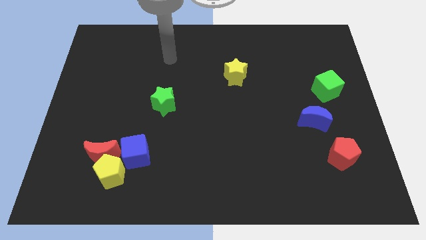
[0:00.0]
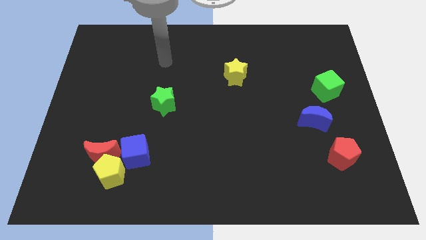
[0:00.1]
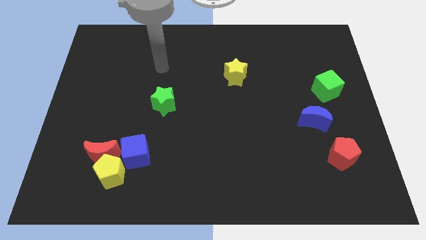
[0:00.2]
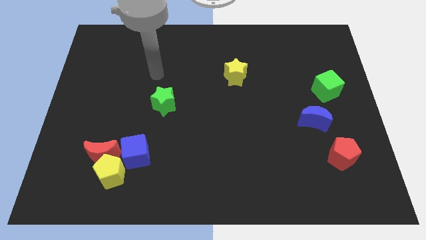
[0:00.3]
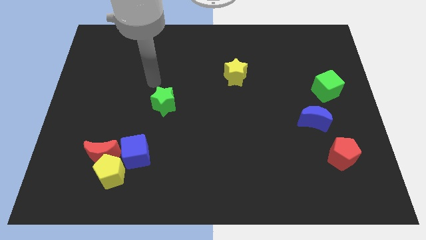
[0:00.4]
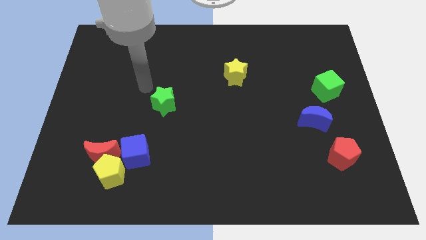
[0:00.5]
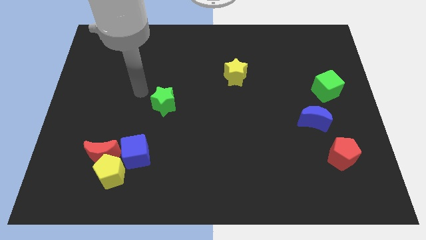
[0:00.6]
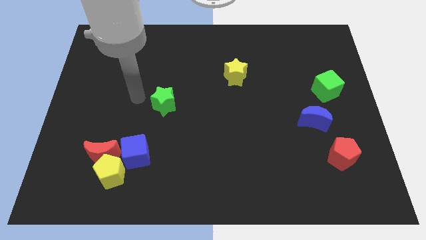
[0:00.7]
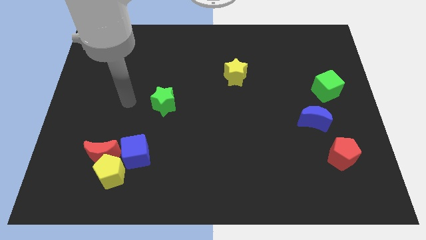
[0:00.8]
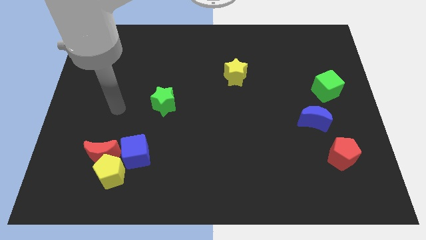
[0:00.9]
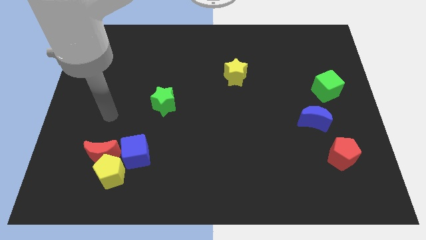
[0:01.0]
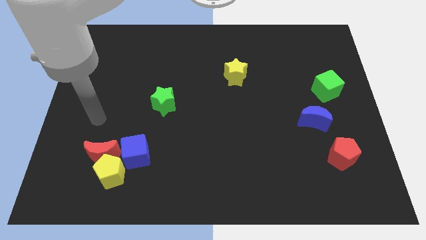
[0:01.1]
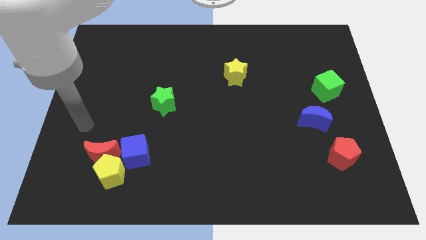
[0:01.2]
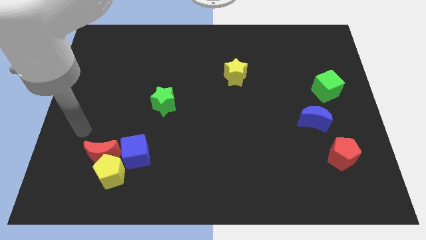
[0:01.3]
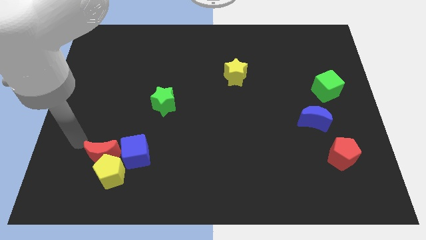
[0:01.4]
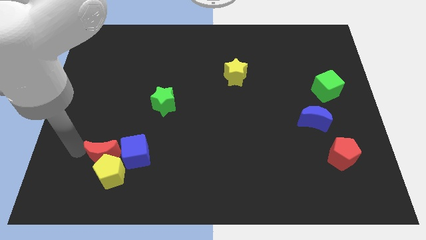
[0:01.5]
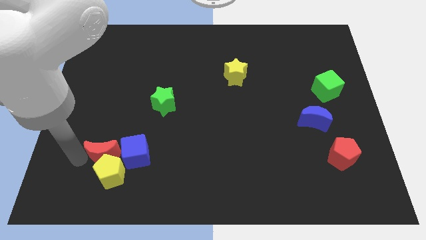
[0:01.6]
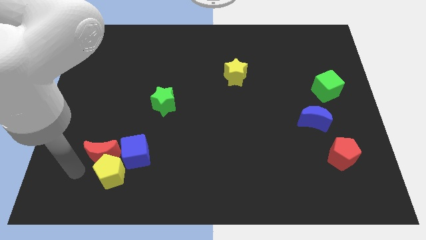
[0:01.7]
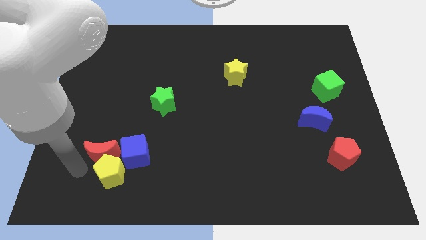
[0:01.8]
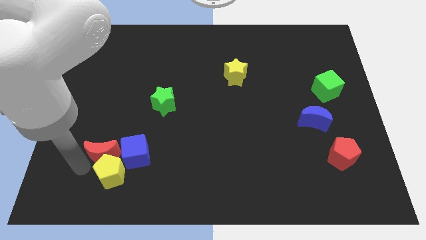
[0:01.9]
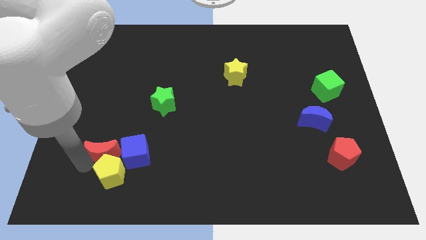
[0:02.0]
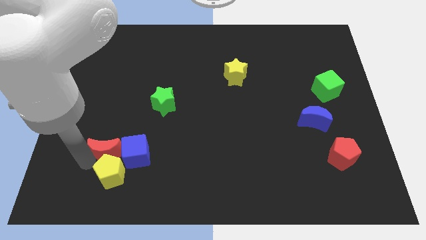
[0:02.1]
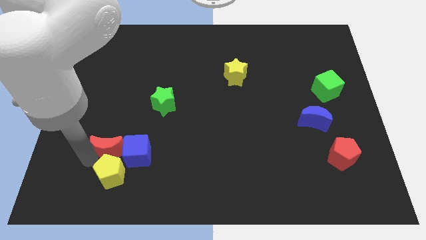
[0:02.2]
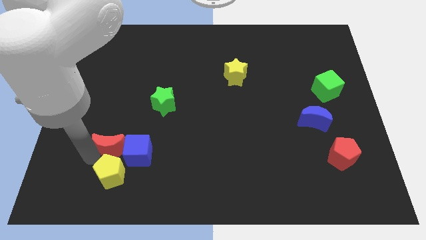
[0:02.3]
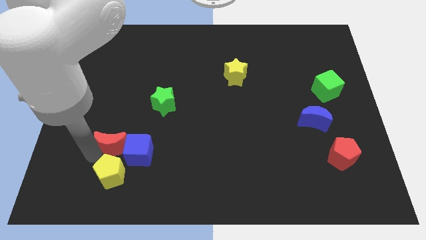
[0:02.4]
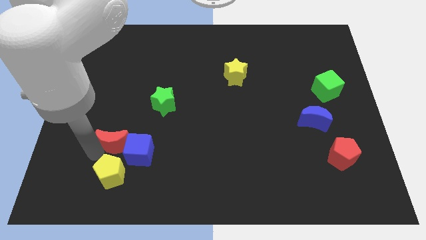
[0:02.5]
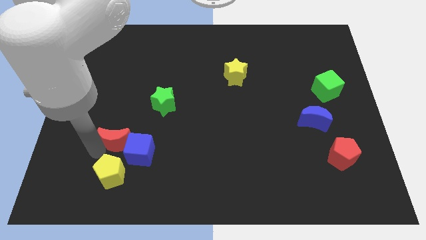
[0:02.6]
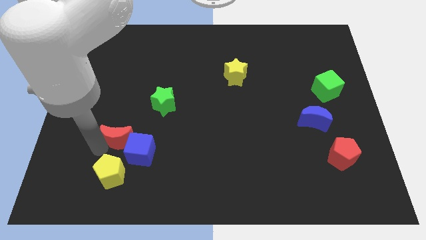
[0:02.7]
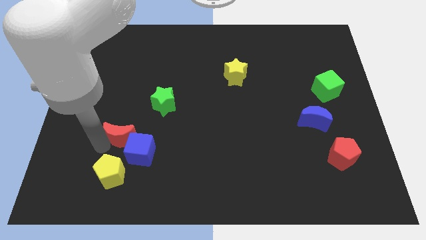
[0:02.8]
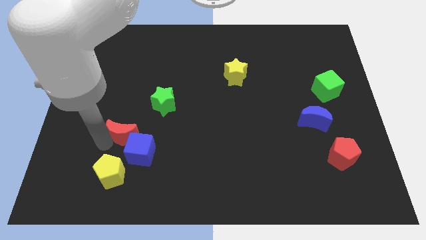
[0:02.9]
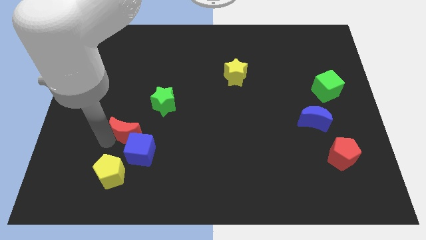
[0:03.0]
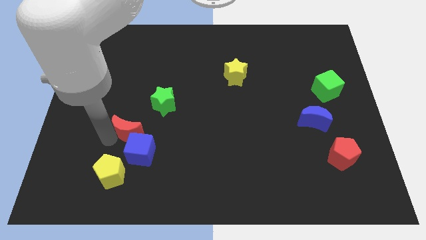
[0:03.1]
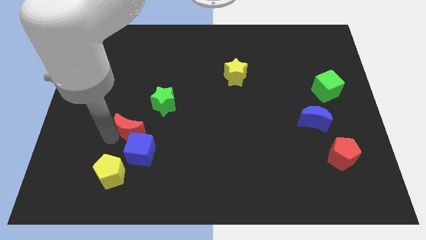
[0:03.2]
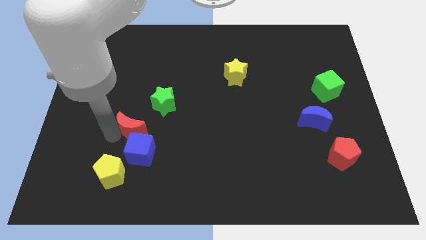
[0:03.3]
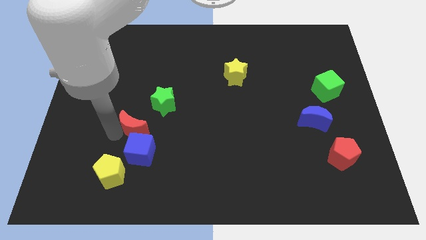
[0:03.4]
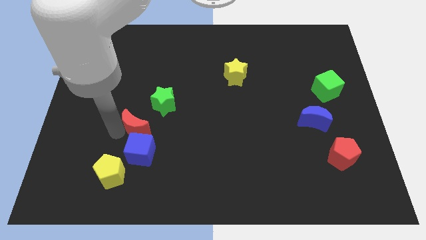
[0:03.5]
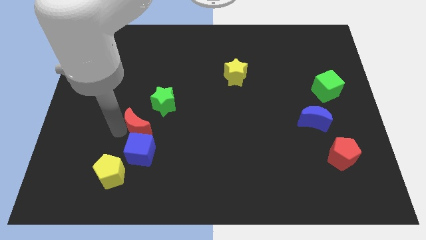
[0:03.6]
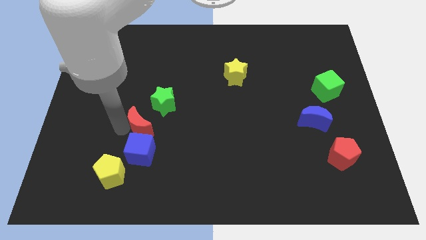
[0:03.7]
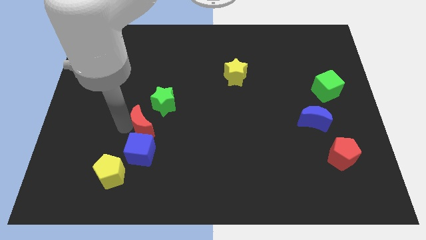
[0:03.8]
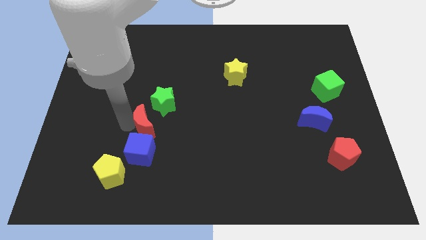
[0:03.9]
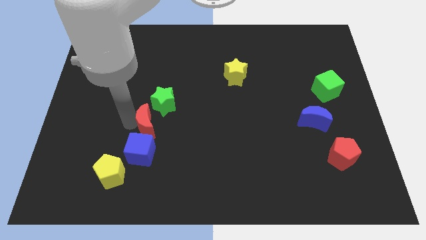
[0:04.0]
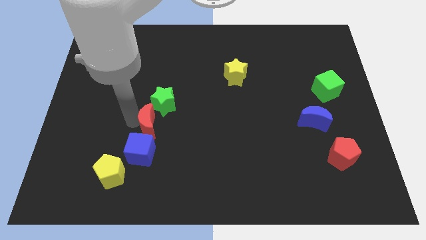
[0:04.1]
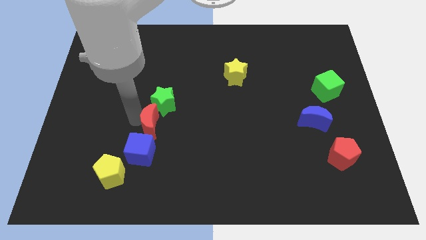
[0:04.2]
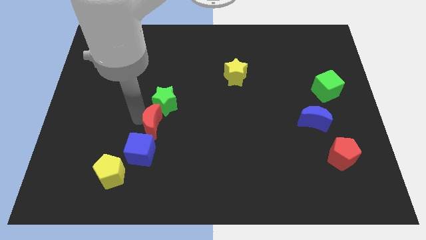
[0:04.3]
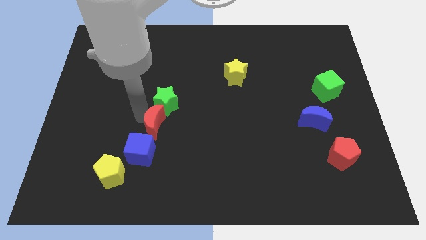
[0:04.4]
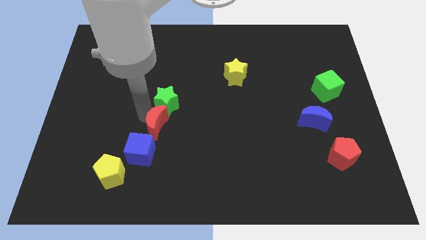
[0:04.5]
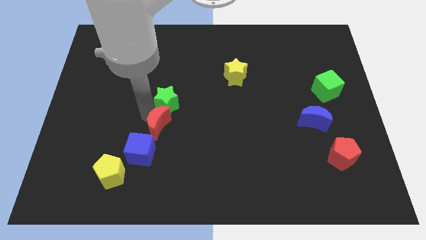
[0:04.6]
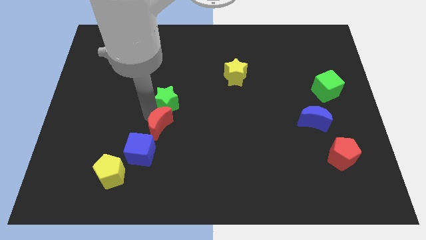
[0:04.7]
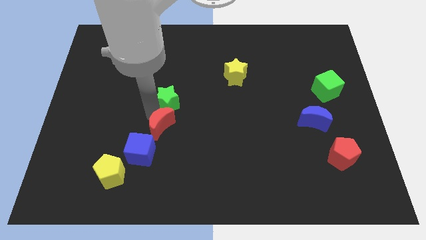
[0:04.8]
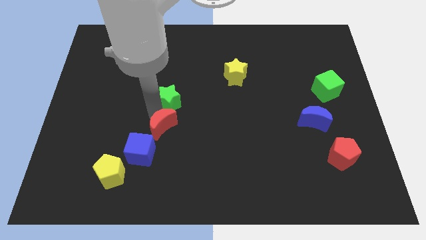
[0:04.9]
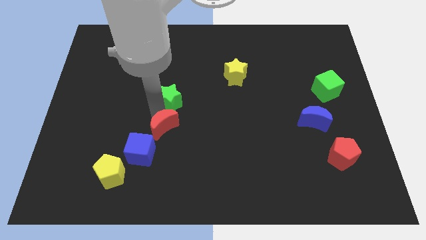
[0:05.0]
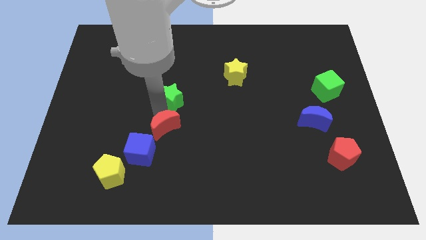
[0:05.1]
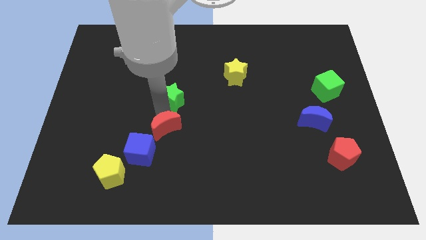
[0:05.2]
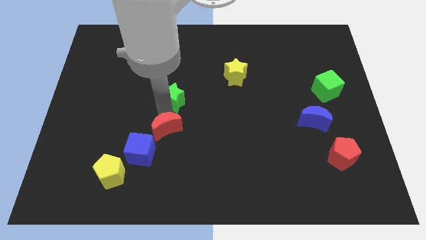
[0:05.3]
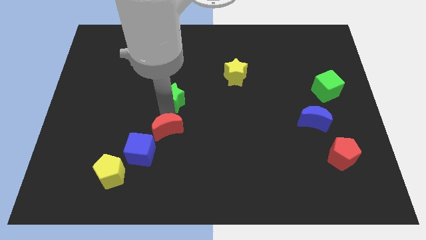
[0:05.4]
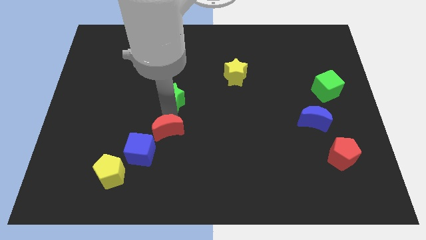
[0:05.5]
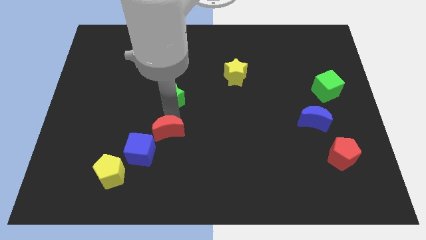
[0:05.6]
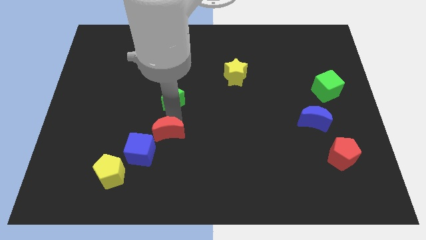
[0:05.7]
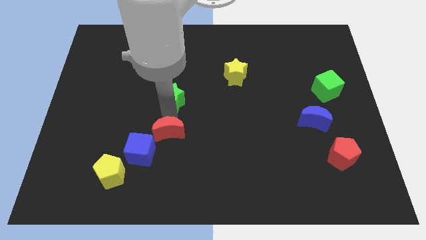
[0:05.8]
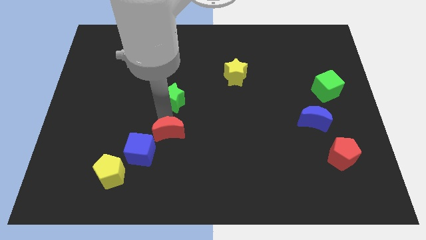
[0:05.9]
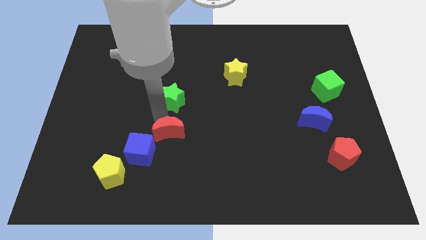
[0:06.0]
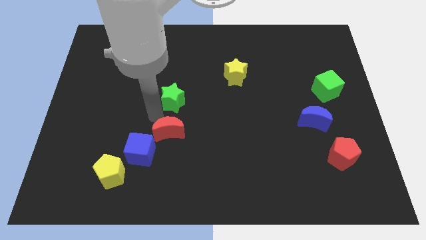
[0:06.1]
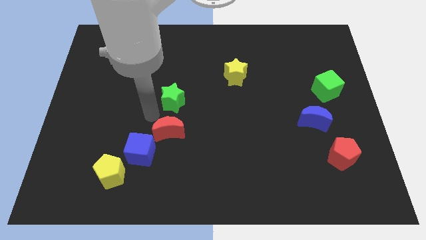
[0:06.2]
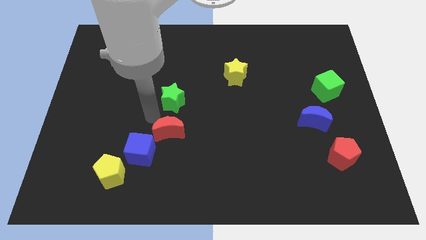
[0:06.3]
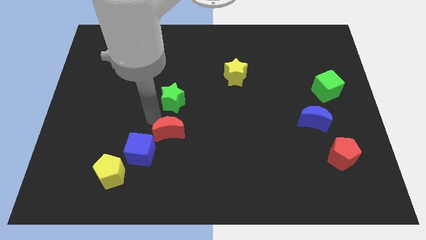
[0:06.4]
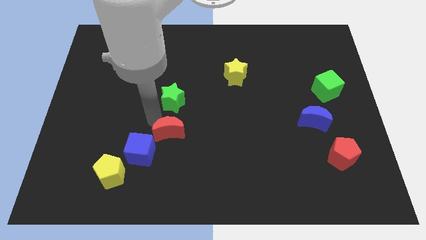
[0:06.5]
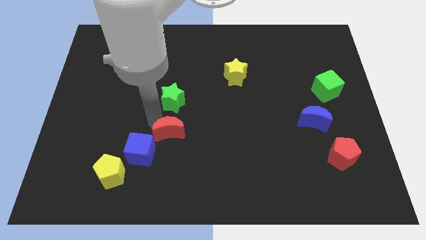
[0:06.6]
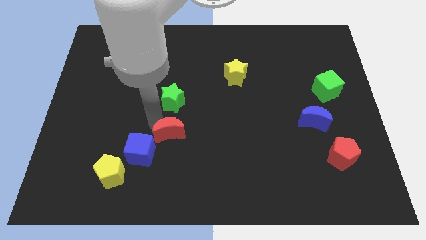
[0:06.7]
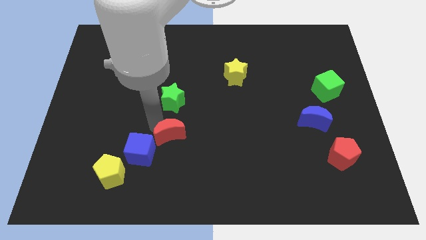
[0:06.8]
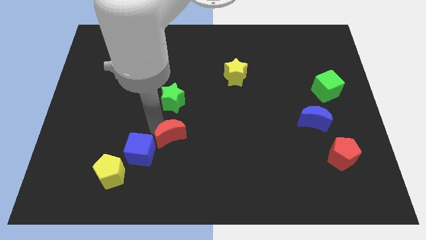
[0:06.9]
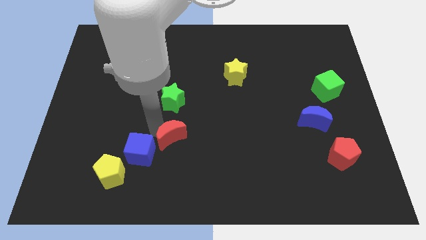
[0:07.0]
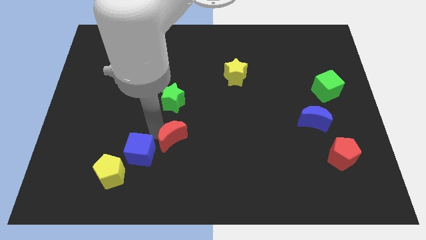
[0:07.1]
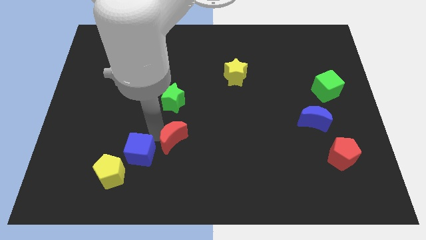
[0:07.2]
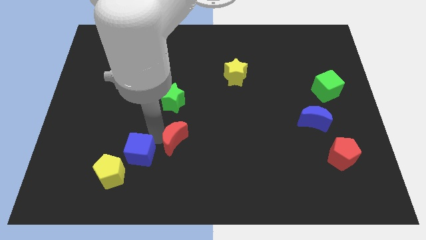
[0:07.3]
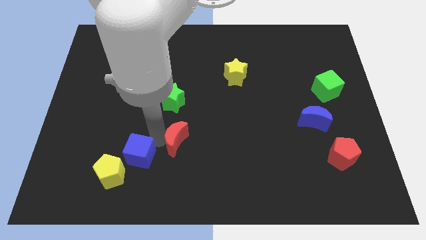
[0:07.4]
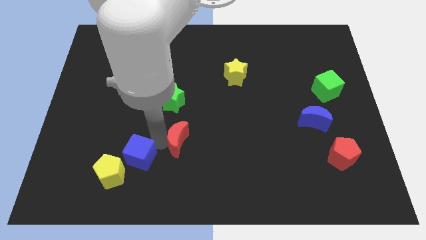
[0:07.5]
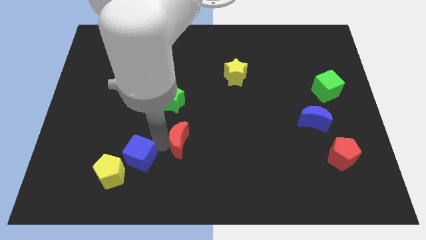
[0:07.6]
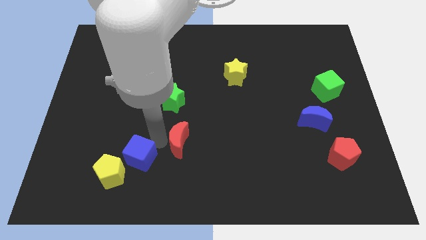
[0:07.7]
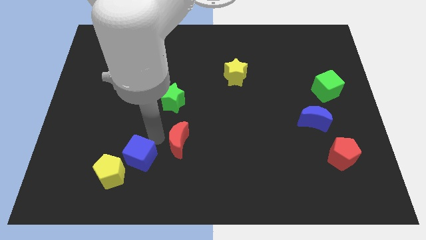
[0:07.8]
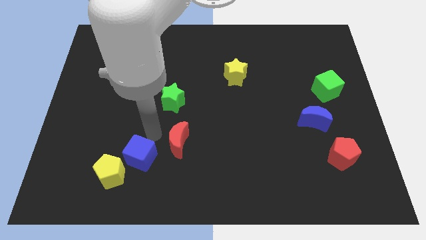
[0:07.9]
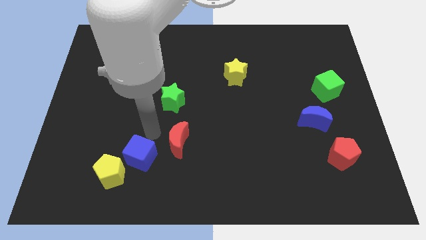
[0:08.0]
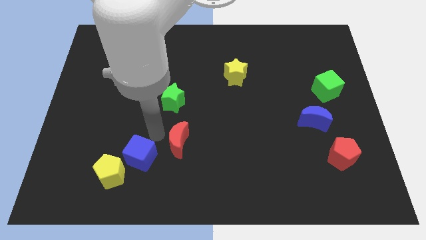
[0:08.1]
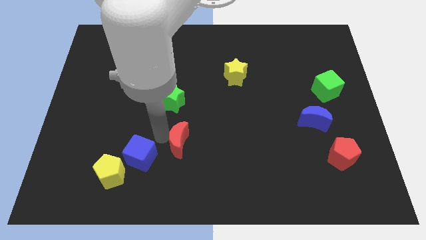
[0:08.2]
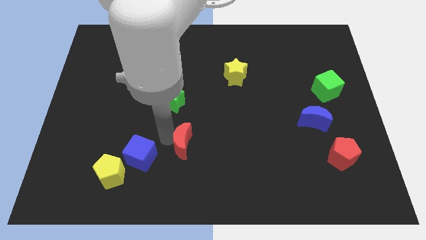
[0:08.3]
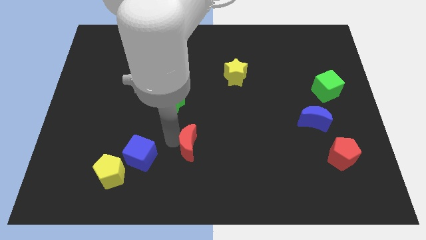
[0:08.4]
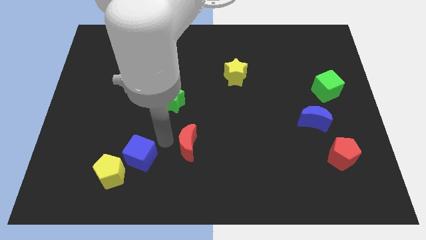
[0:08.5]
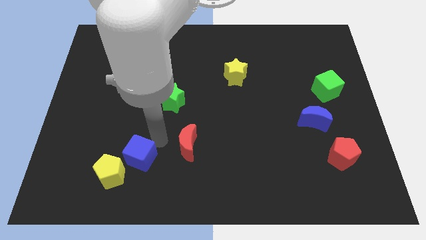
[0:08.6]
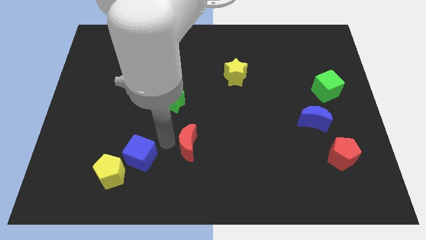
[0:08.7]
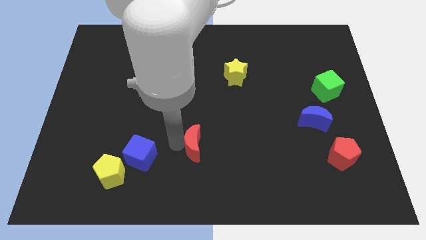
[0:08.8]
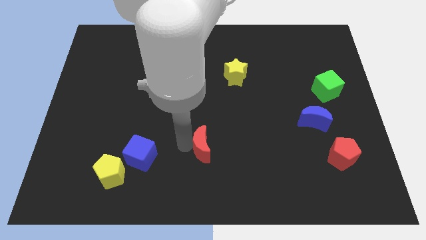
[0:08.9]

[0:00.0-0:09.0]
move the red moon right
